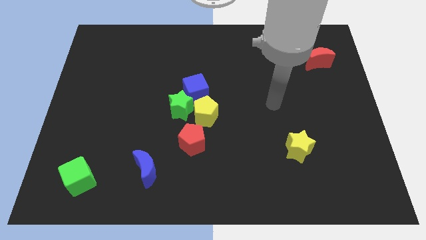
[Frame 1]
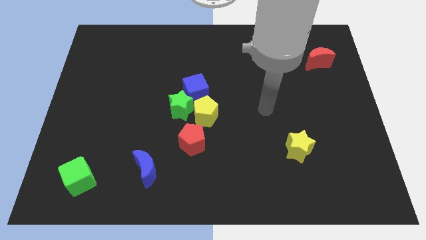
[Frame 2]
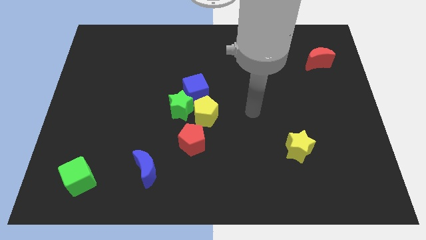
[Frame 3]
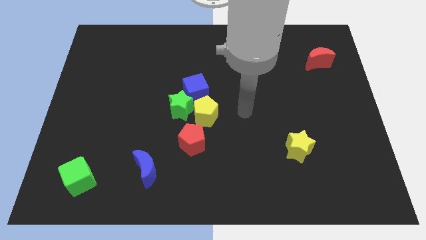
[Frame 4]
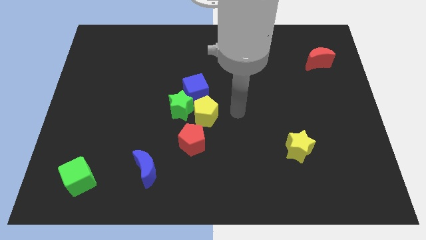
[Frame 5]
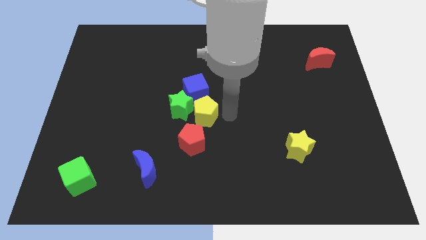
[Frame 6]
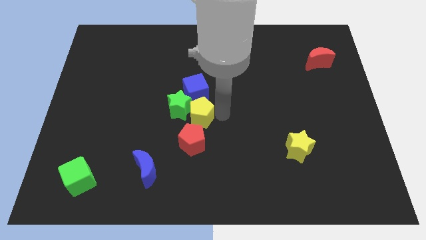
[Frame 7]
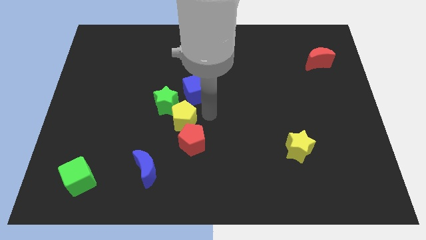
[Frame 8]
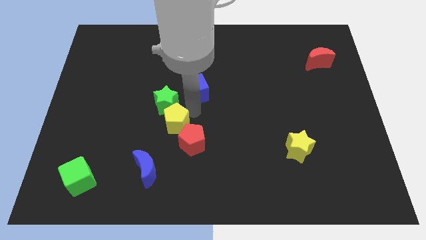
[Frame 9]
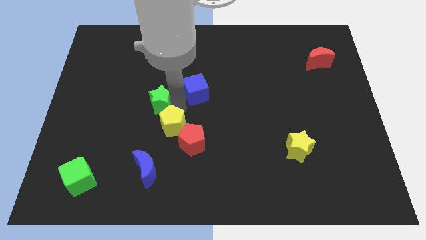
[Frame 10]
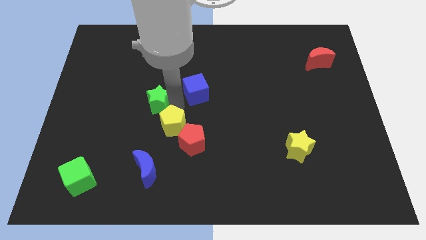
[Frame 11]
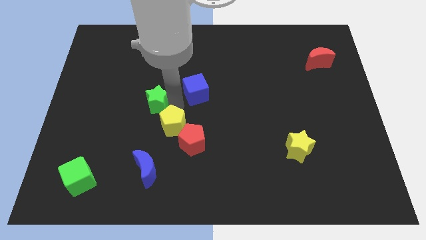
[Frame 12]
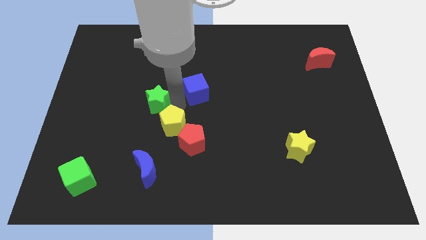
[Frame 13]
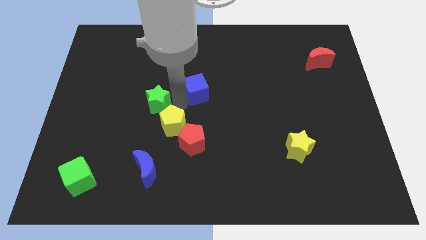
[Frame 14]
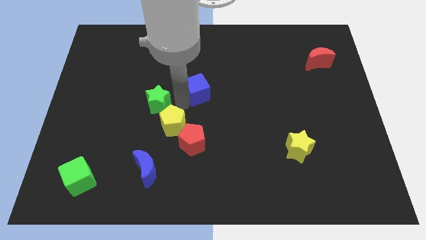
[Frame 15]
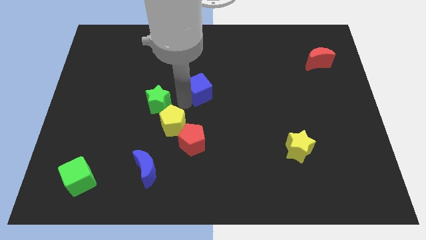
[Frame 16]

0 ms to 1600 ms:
pull the blue cube apart from the green star and yellow pentagon

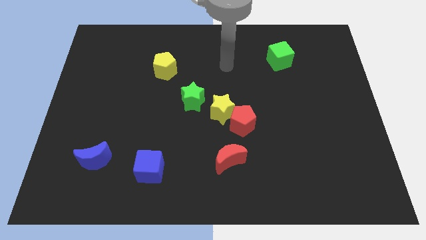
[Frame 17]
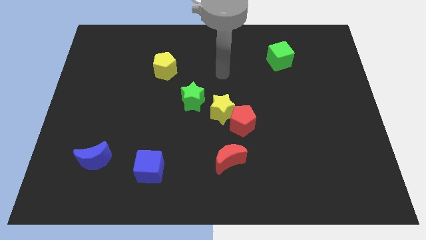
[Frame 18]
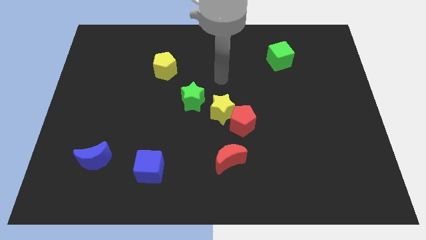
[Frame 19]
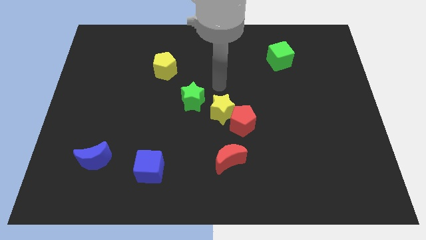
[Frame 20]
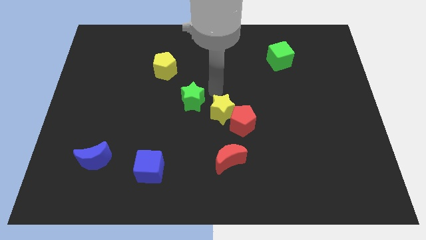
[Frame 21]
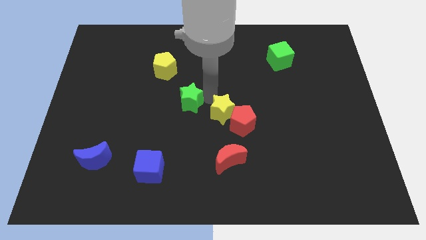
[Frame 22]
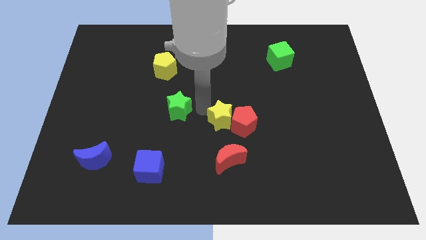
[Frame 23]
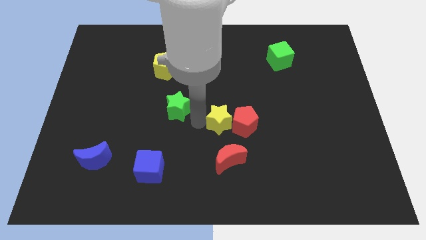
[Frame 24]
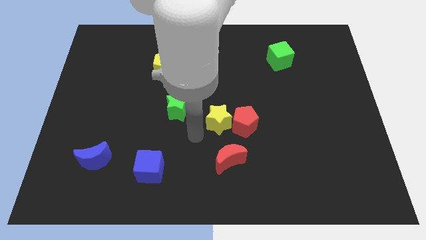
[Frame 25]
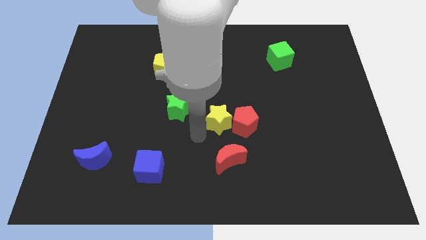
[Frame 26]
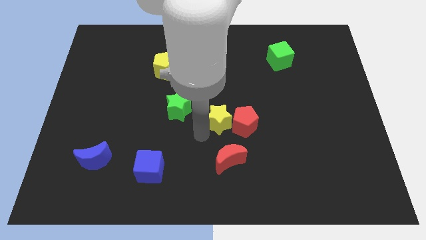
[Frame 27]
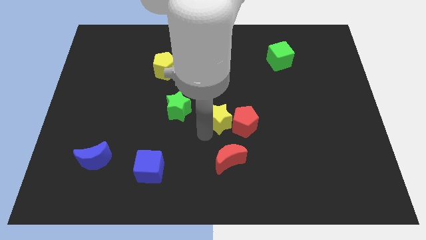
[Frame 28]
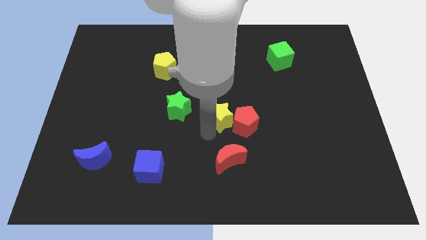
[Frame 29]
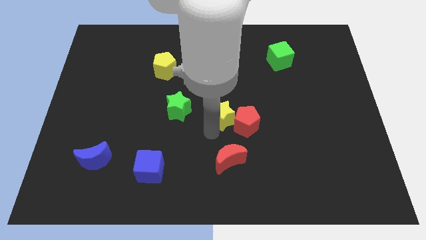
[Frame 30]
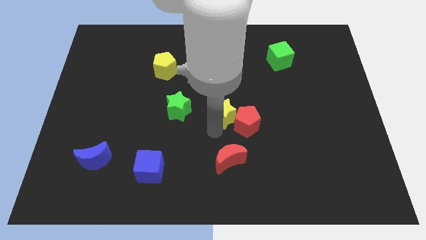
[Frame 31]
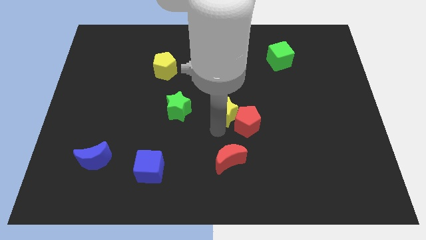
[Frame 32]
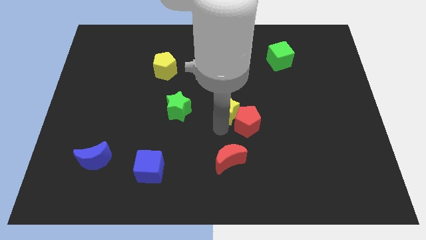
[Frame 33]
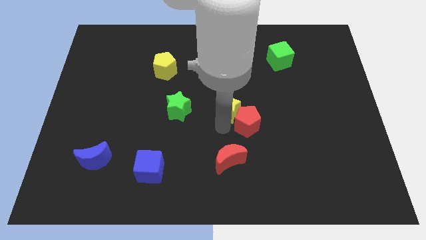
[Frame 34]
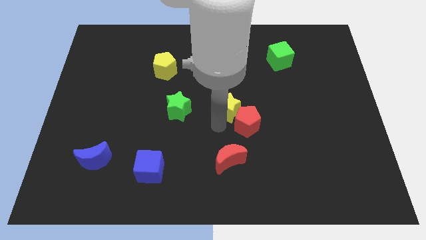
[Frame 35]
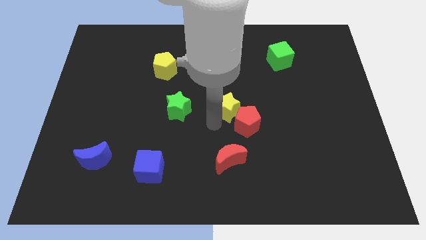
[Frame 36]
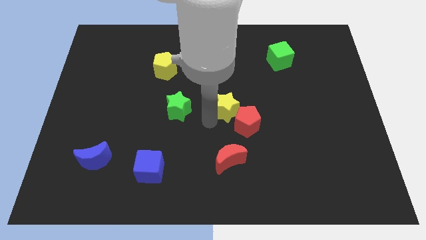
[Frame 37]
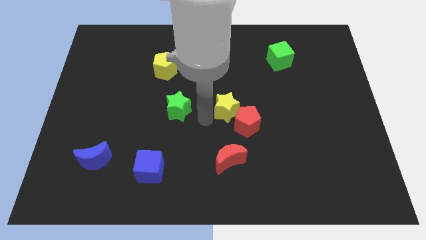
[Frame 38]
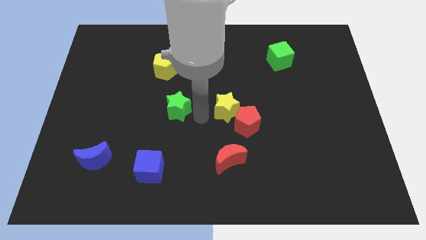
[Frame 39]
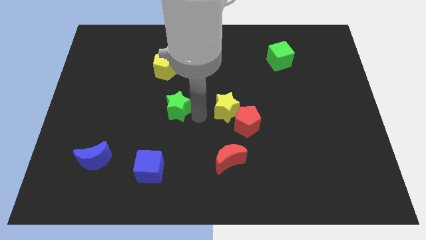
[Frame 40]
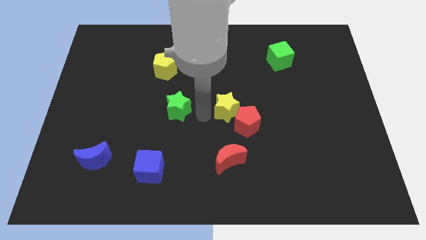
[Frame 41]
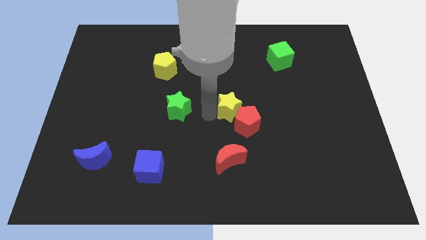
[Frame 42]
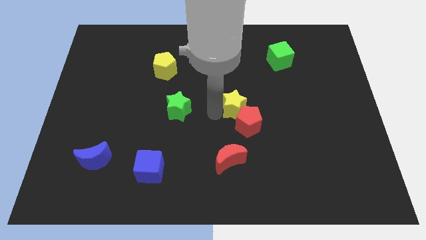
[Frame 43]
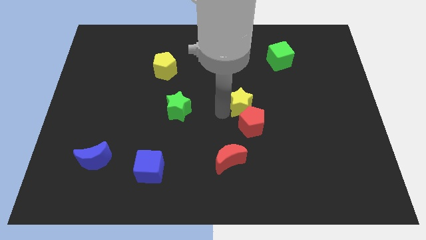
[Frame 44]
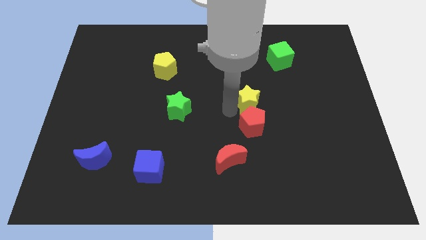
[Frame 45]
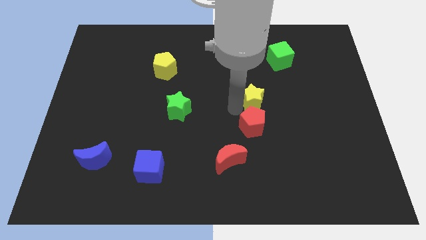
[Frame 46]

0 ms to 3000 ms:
pull the yellow star apart from the red pentagon and green star

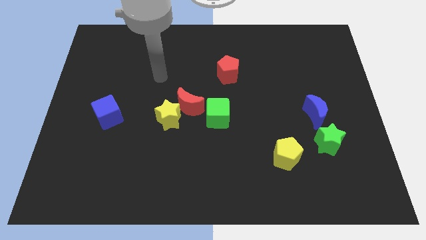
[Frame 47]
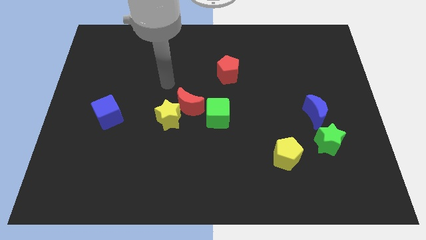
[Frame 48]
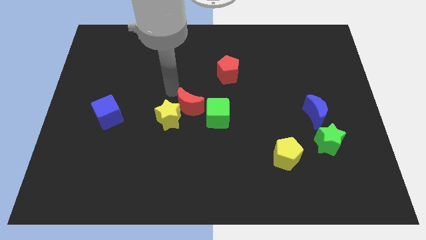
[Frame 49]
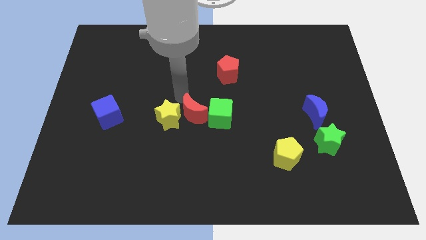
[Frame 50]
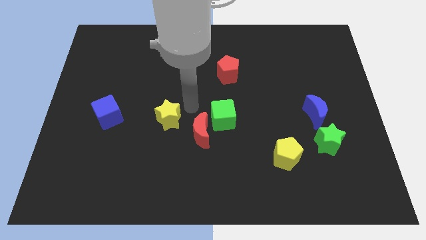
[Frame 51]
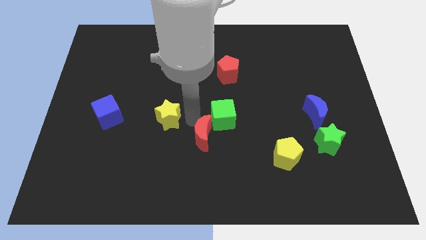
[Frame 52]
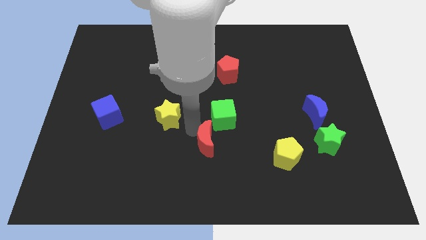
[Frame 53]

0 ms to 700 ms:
separate the yellow star from the red moon

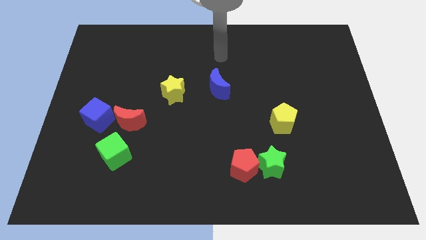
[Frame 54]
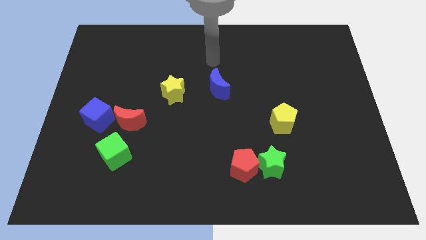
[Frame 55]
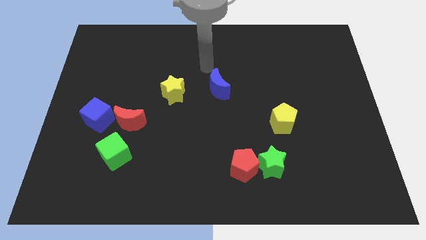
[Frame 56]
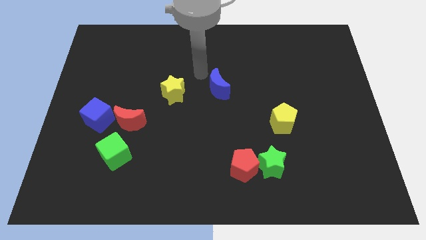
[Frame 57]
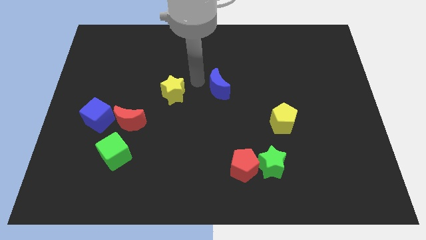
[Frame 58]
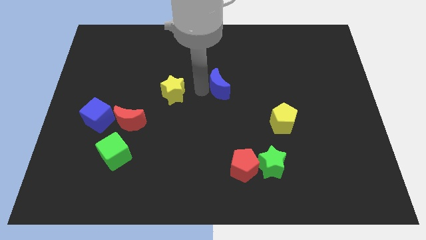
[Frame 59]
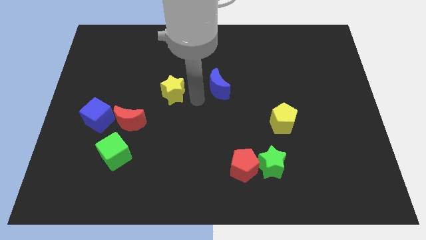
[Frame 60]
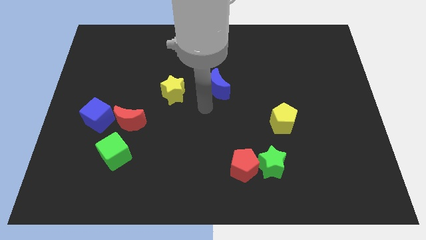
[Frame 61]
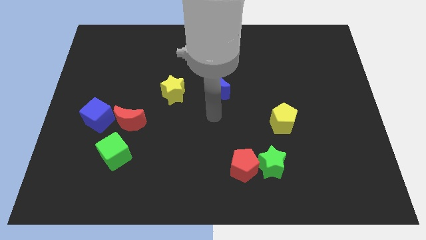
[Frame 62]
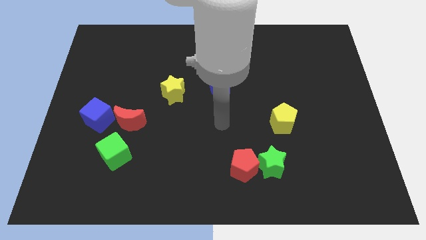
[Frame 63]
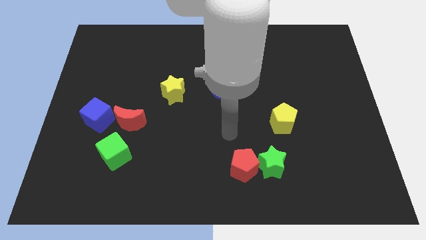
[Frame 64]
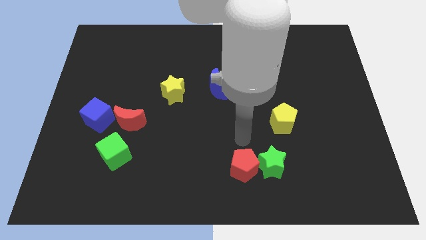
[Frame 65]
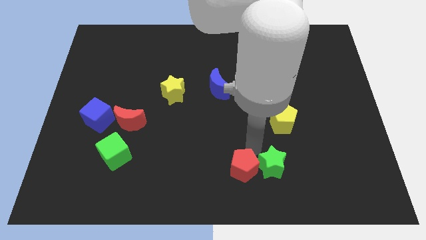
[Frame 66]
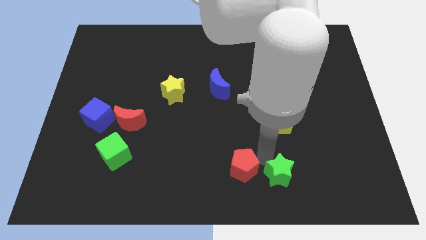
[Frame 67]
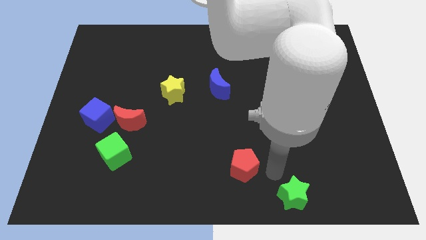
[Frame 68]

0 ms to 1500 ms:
separate the red pentagon from the green star

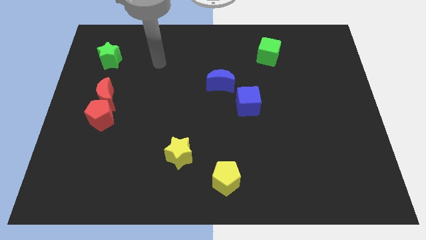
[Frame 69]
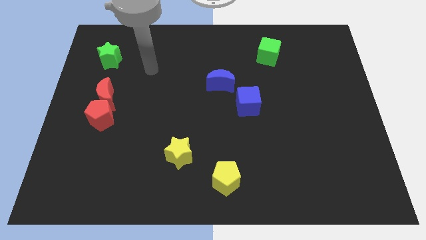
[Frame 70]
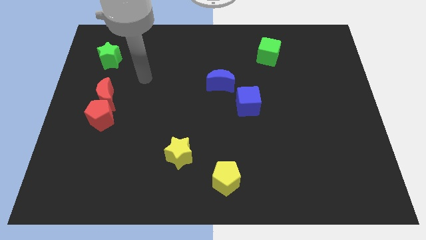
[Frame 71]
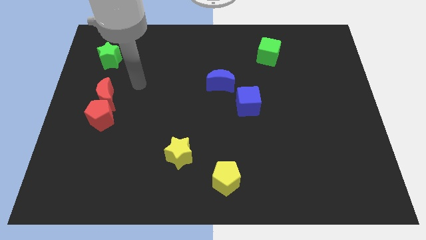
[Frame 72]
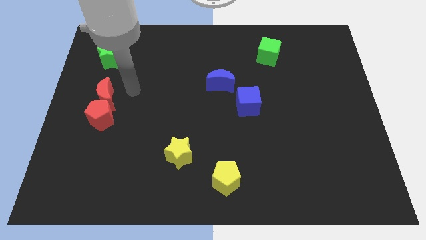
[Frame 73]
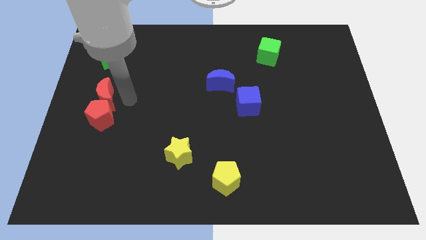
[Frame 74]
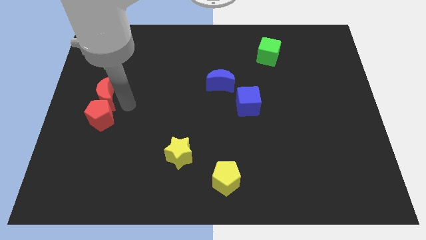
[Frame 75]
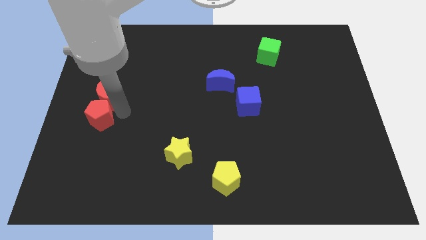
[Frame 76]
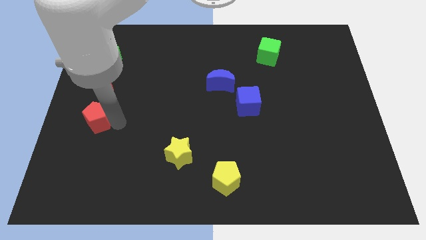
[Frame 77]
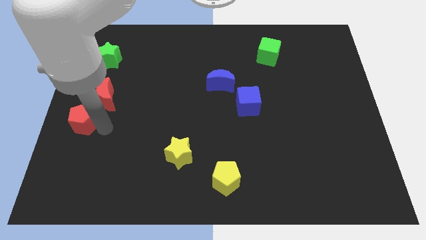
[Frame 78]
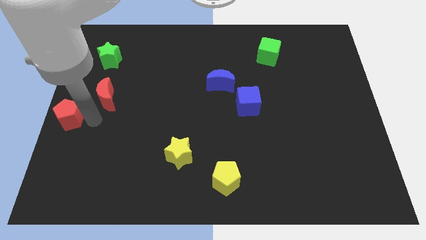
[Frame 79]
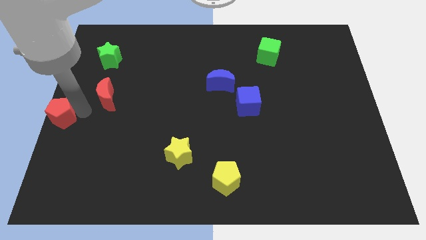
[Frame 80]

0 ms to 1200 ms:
move the red moon away from the red pentagon

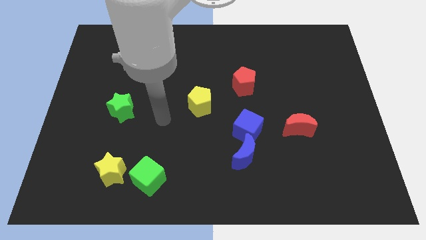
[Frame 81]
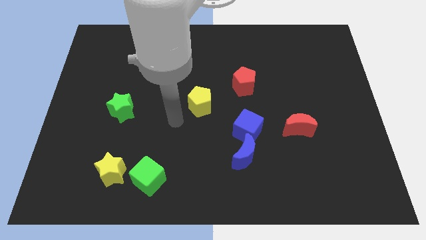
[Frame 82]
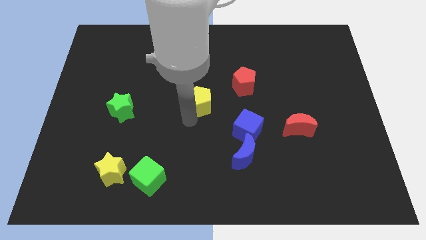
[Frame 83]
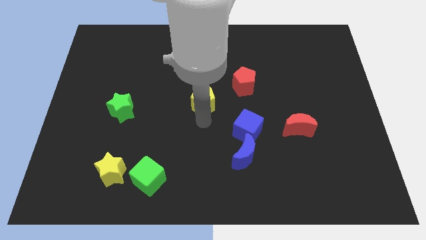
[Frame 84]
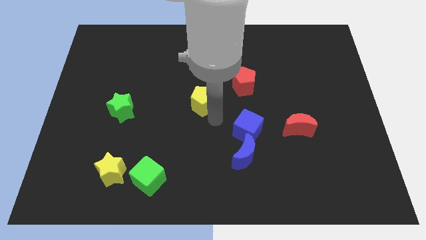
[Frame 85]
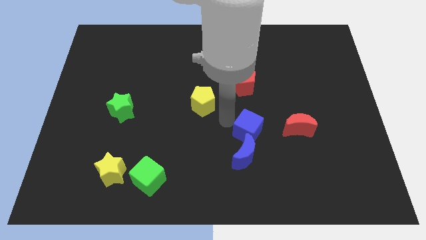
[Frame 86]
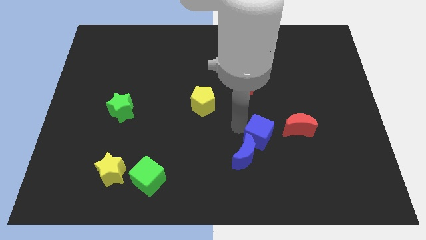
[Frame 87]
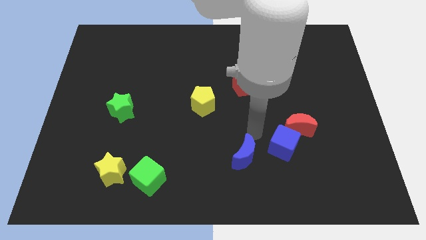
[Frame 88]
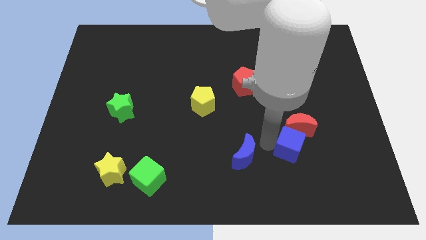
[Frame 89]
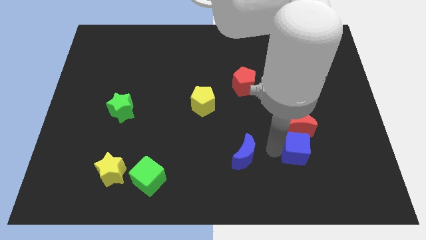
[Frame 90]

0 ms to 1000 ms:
pull the blue moon apart from the blue cube

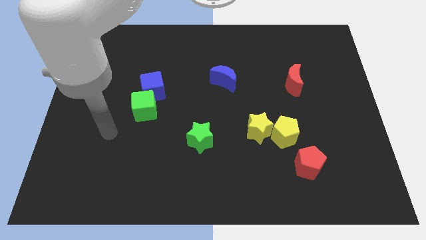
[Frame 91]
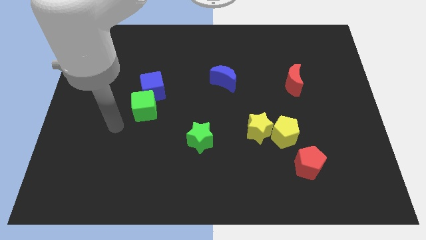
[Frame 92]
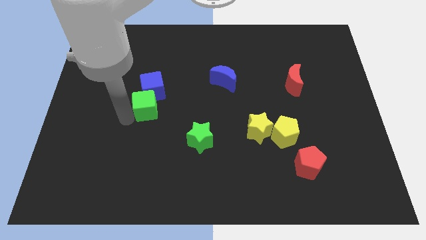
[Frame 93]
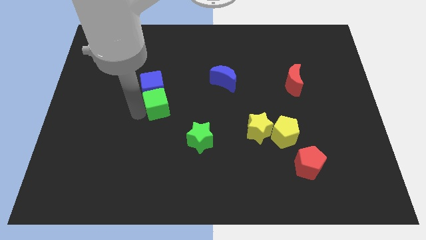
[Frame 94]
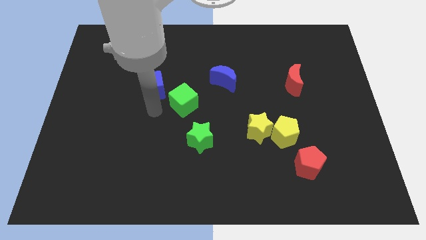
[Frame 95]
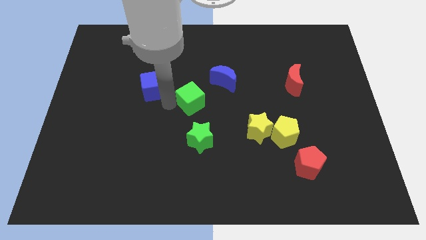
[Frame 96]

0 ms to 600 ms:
separate the blue cube from the green cube
